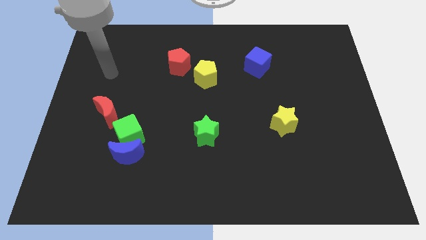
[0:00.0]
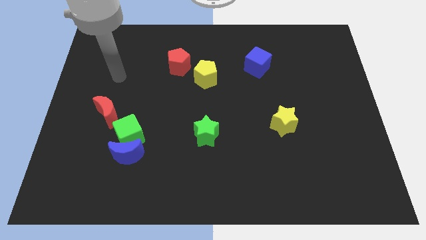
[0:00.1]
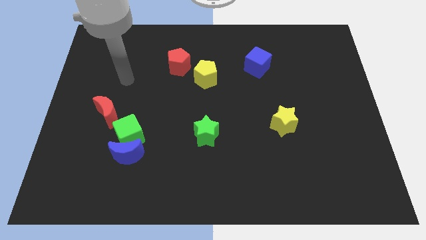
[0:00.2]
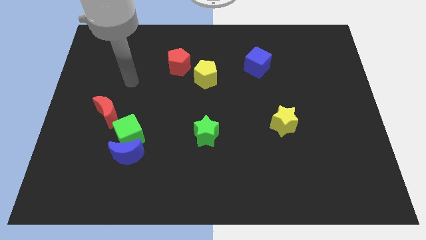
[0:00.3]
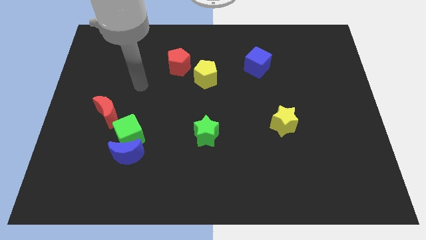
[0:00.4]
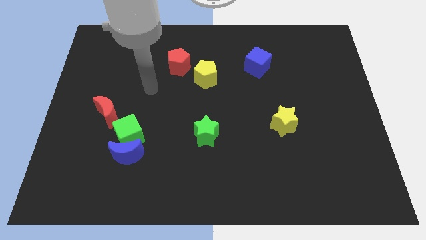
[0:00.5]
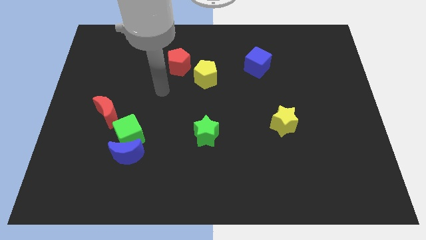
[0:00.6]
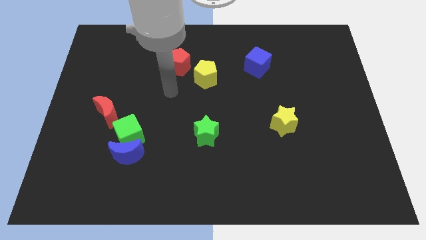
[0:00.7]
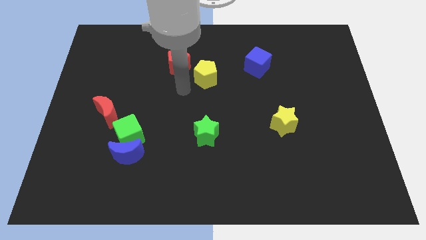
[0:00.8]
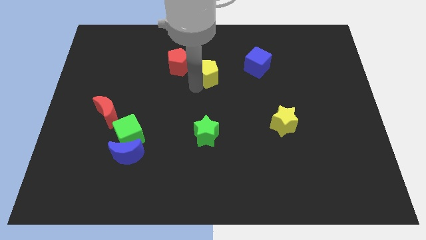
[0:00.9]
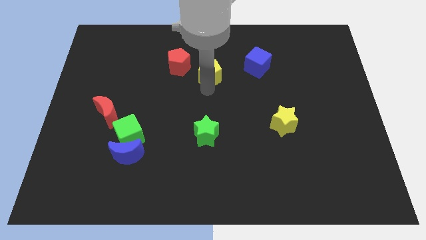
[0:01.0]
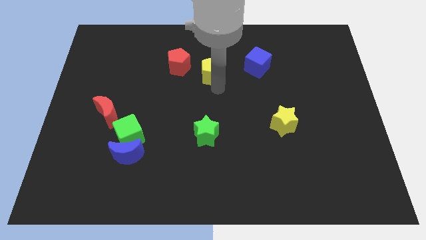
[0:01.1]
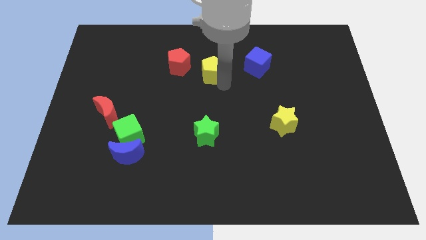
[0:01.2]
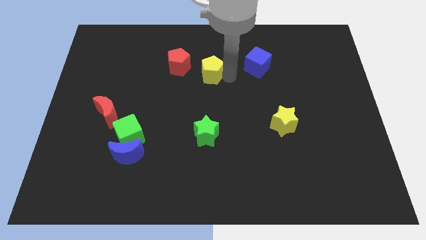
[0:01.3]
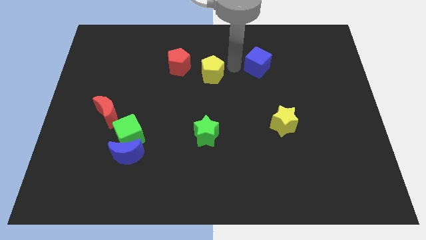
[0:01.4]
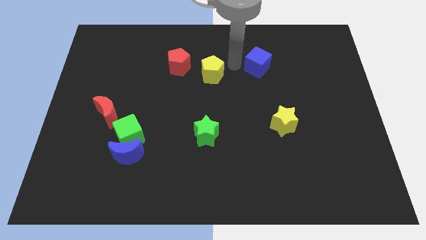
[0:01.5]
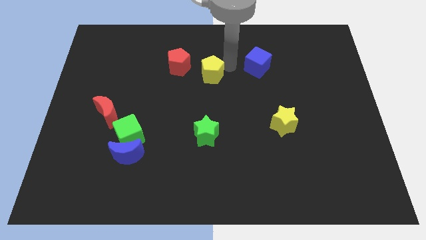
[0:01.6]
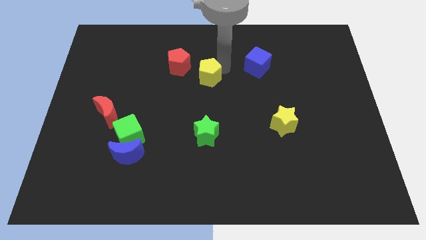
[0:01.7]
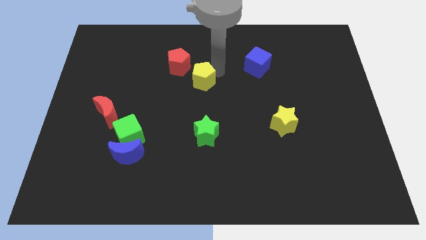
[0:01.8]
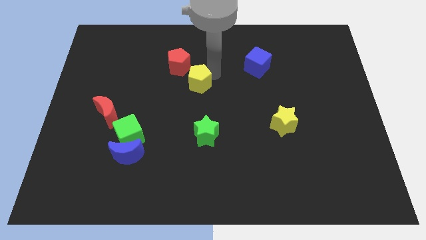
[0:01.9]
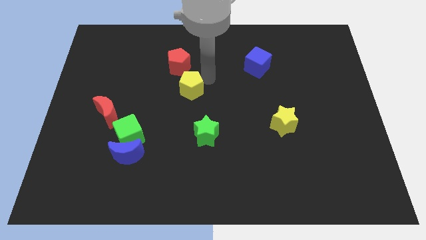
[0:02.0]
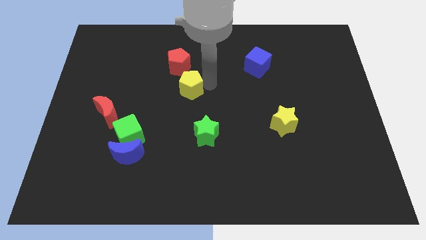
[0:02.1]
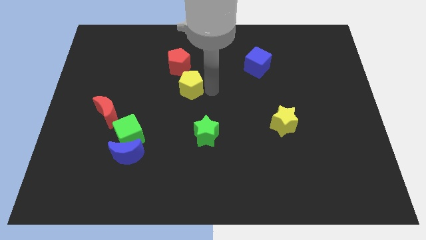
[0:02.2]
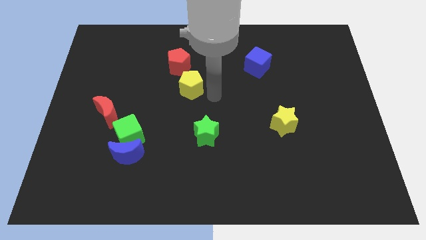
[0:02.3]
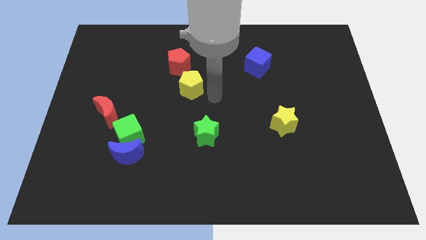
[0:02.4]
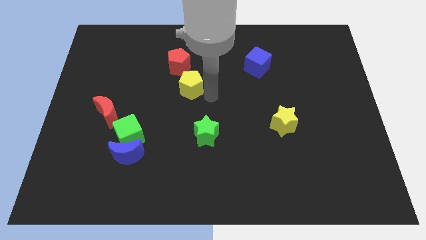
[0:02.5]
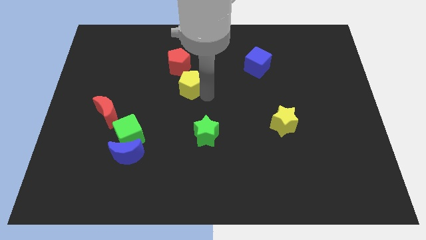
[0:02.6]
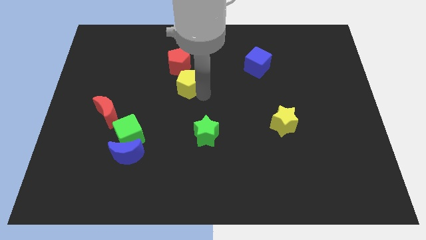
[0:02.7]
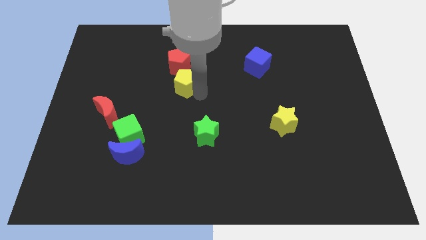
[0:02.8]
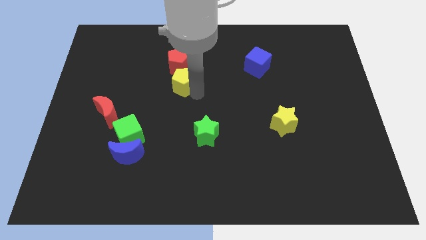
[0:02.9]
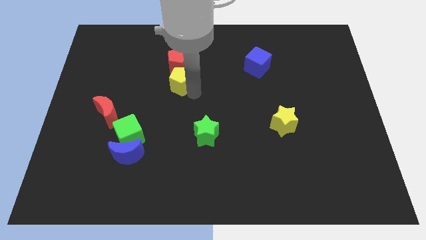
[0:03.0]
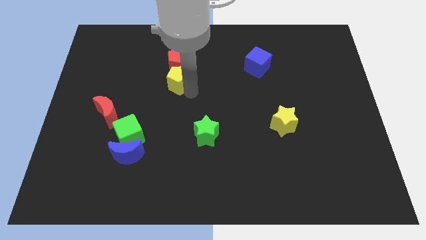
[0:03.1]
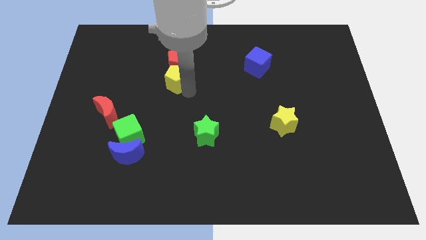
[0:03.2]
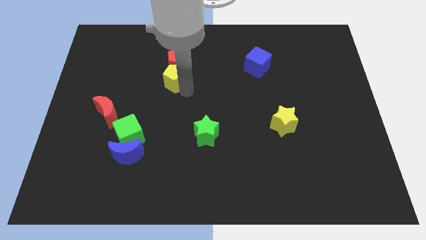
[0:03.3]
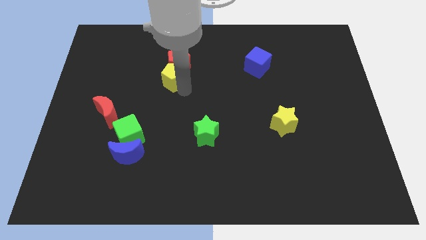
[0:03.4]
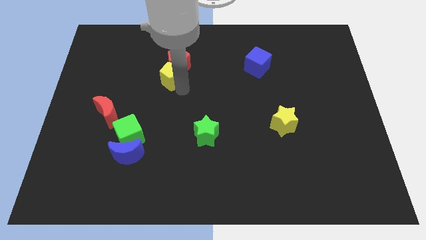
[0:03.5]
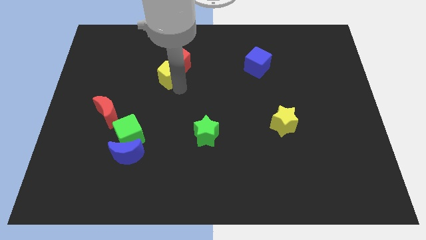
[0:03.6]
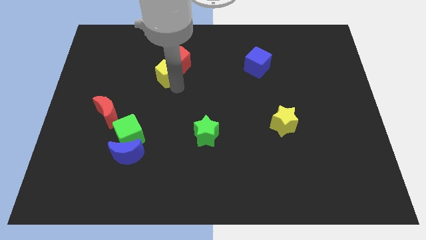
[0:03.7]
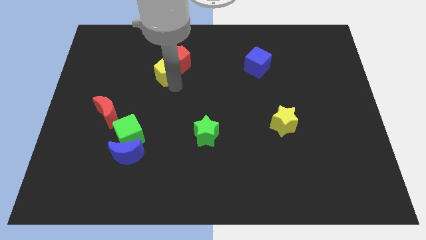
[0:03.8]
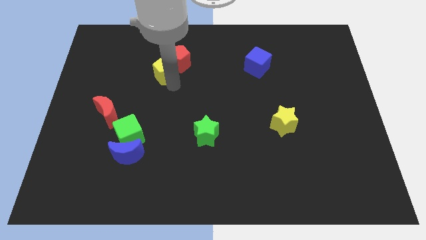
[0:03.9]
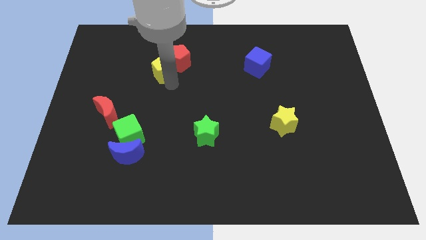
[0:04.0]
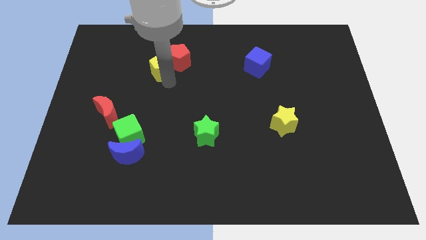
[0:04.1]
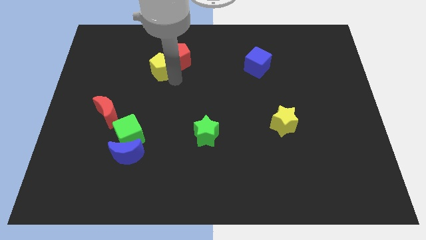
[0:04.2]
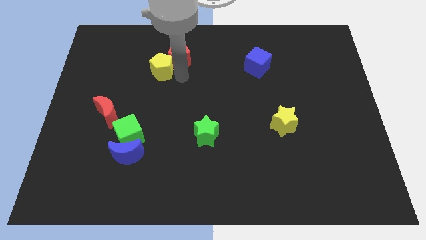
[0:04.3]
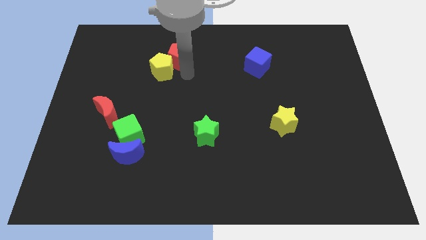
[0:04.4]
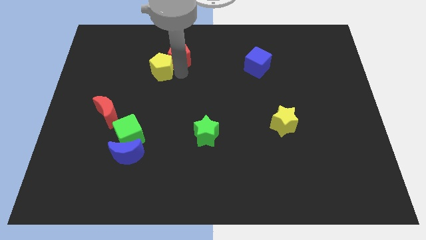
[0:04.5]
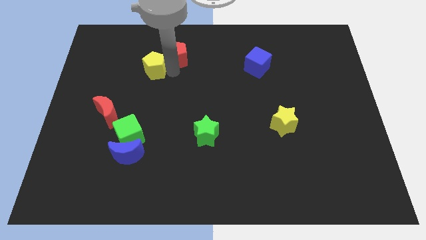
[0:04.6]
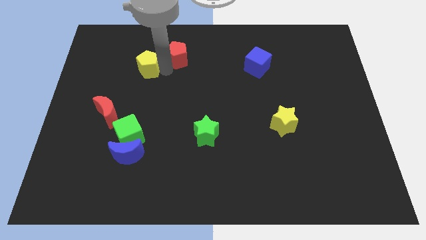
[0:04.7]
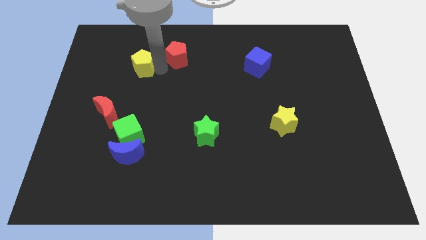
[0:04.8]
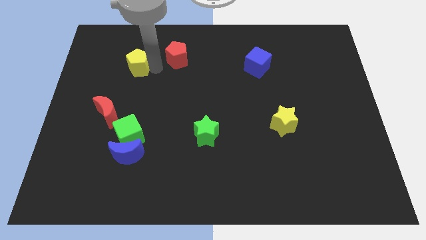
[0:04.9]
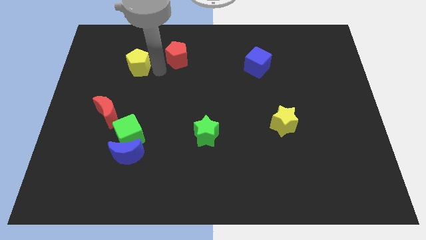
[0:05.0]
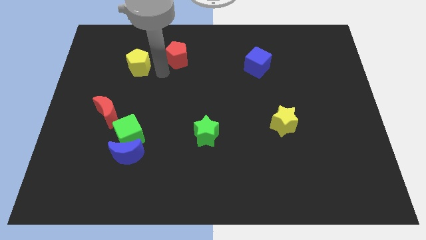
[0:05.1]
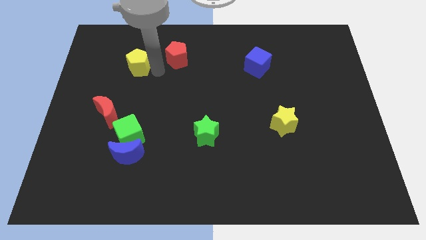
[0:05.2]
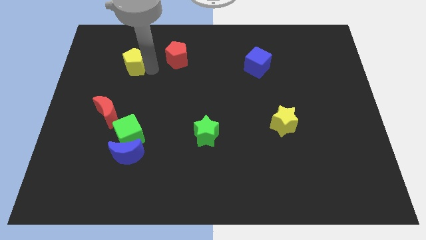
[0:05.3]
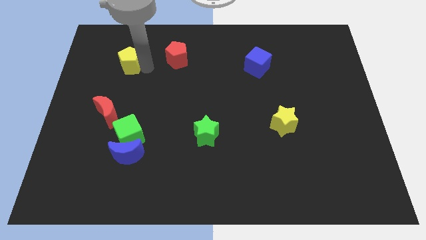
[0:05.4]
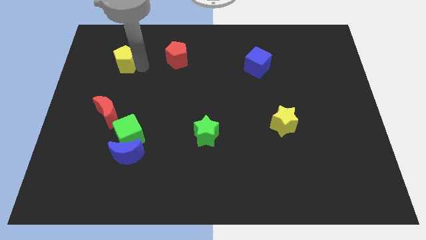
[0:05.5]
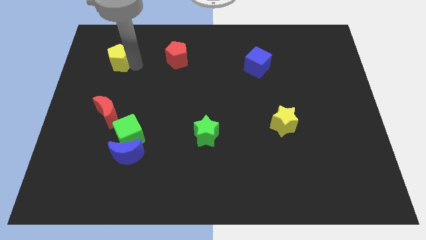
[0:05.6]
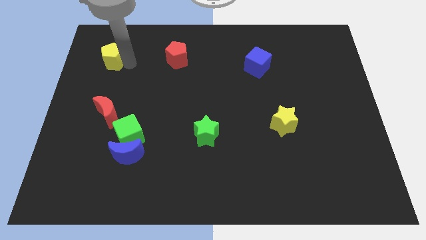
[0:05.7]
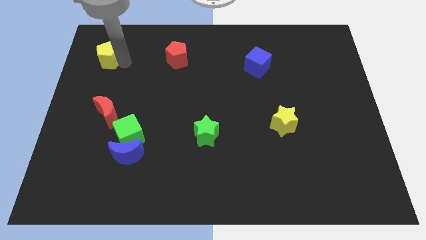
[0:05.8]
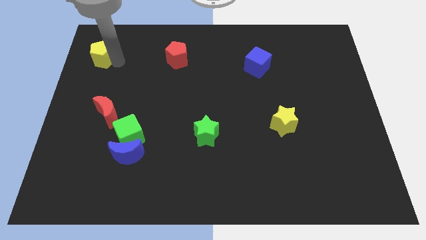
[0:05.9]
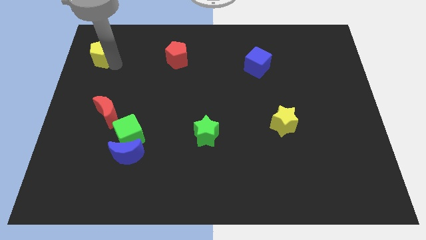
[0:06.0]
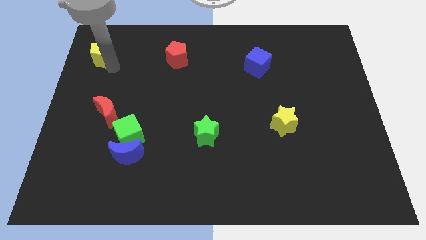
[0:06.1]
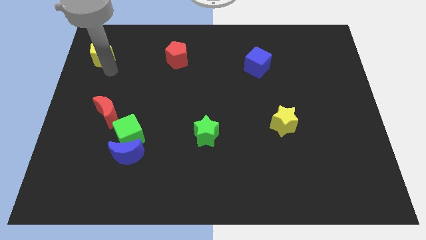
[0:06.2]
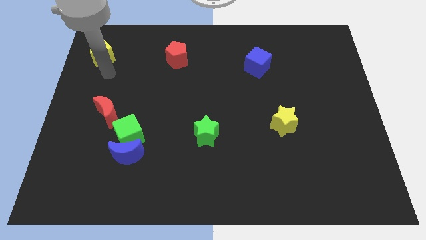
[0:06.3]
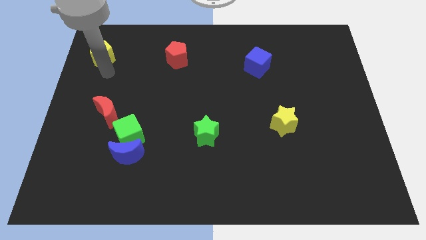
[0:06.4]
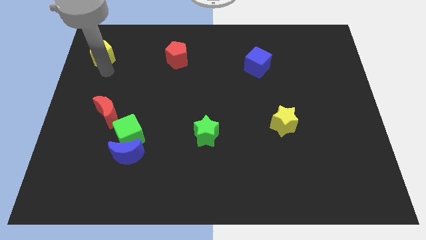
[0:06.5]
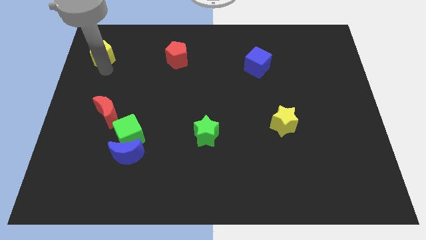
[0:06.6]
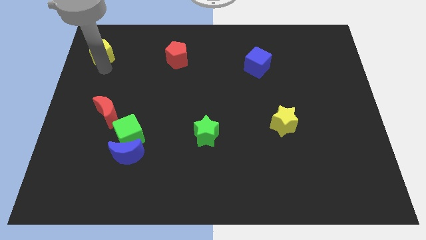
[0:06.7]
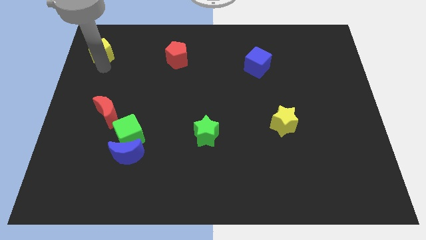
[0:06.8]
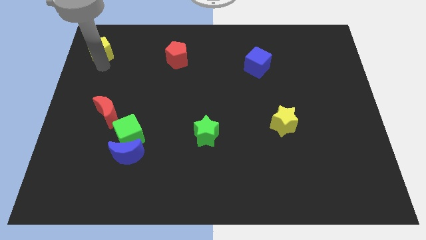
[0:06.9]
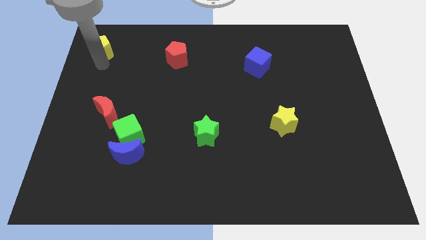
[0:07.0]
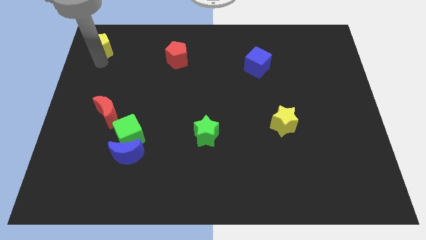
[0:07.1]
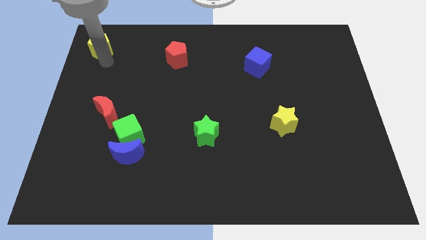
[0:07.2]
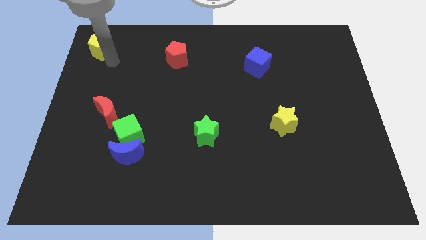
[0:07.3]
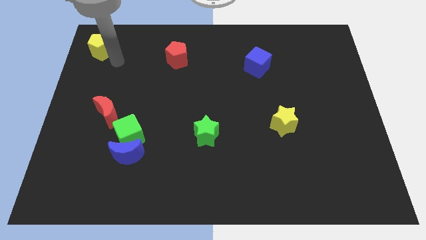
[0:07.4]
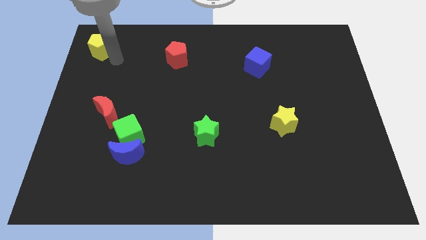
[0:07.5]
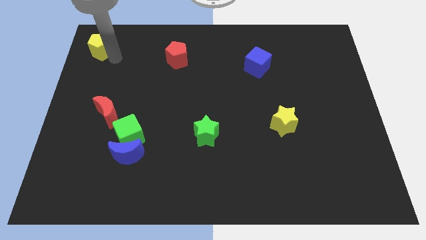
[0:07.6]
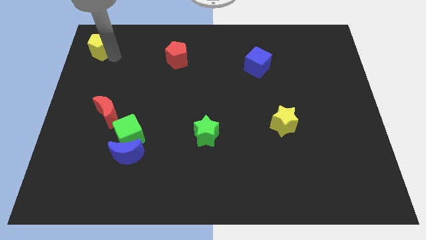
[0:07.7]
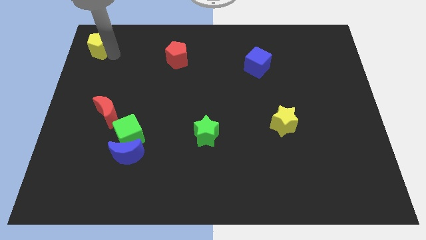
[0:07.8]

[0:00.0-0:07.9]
slide the yellow pentagon to the upper left corner
